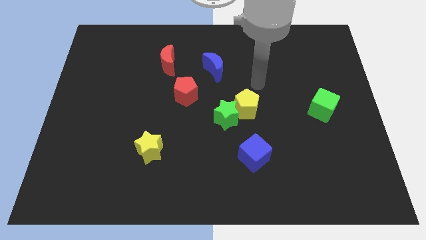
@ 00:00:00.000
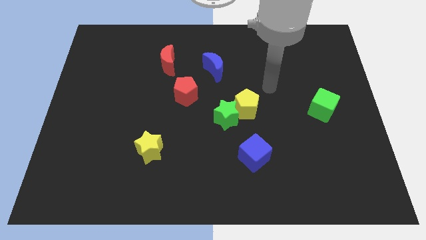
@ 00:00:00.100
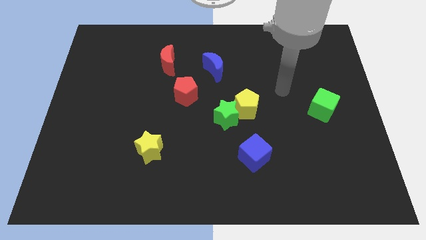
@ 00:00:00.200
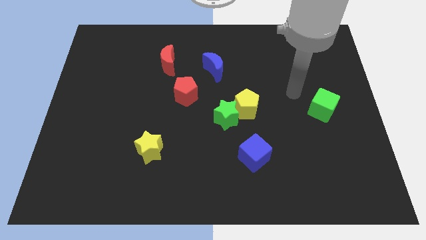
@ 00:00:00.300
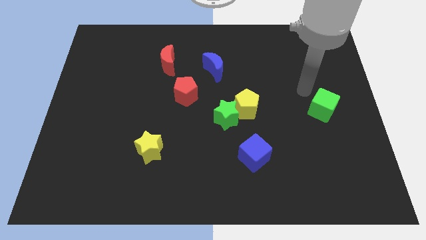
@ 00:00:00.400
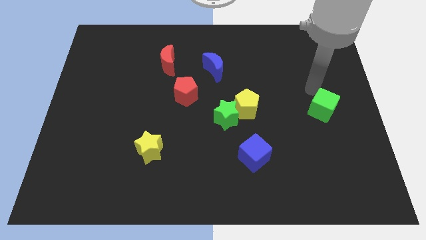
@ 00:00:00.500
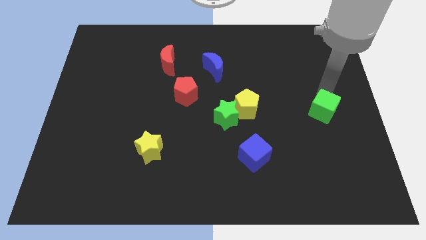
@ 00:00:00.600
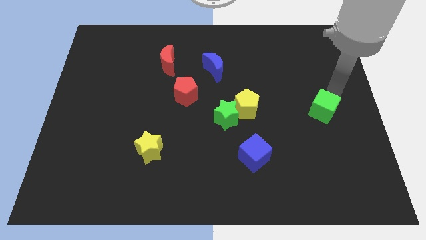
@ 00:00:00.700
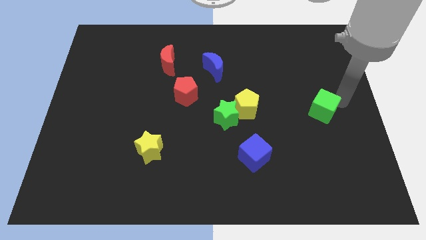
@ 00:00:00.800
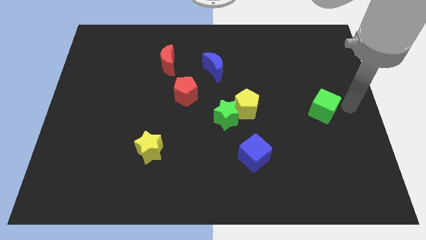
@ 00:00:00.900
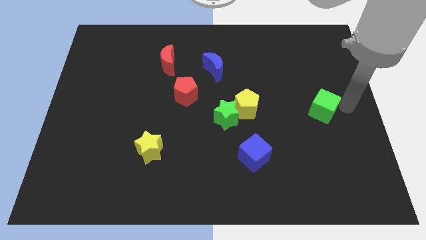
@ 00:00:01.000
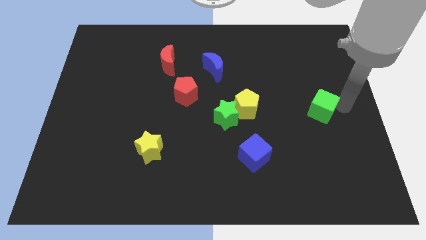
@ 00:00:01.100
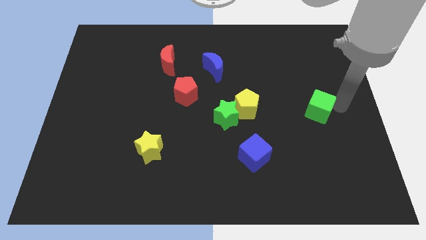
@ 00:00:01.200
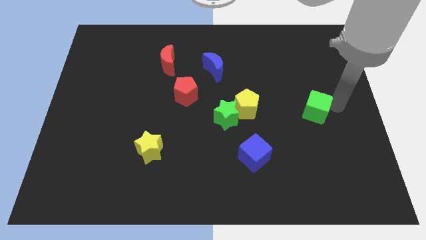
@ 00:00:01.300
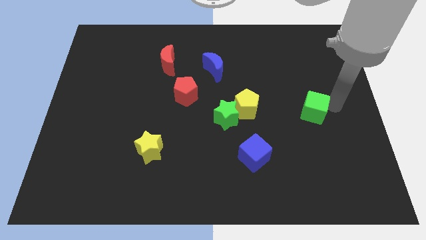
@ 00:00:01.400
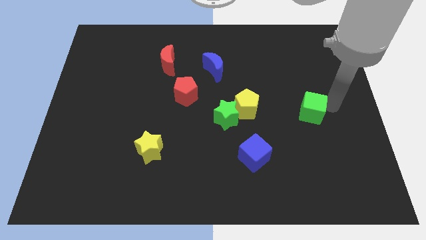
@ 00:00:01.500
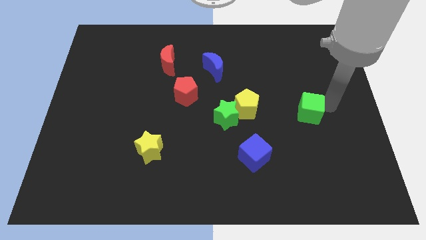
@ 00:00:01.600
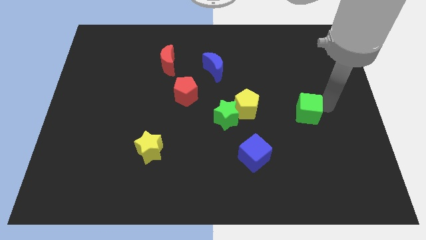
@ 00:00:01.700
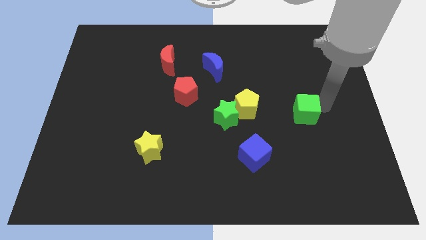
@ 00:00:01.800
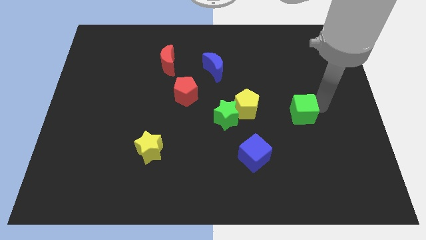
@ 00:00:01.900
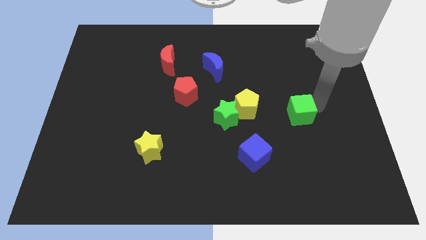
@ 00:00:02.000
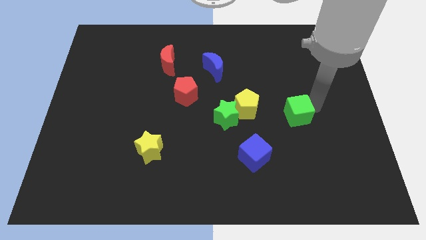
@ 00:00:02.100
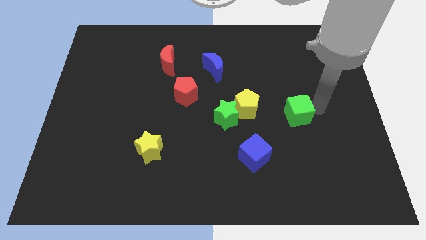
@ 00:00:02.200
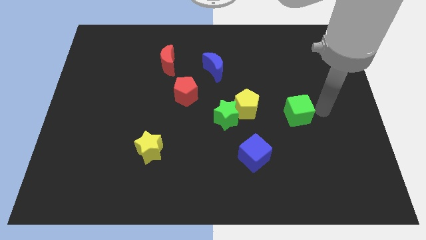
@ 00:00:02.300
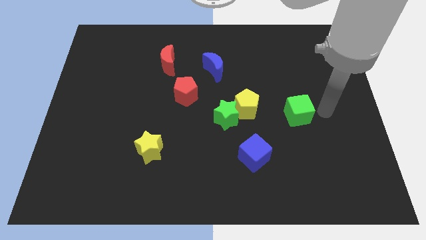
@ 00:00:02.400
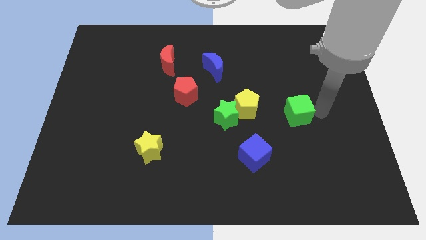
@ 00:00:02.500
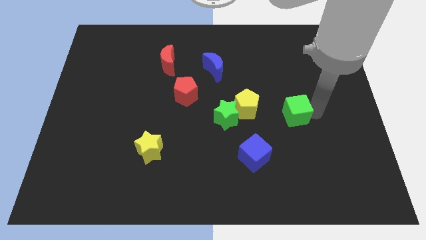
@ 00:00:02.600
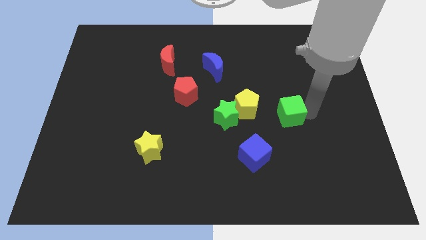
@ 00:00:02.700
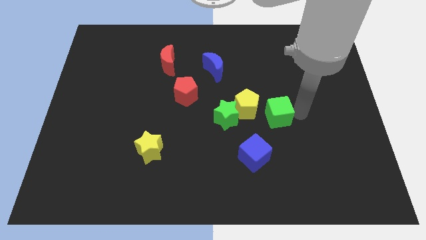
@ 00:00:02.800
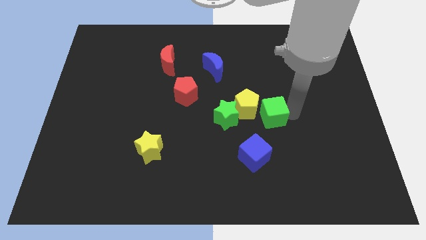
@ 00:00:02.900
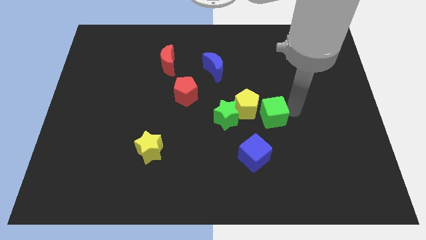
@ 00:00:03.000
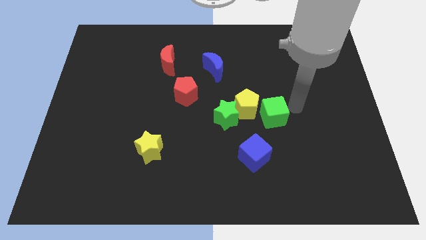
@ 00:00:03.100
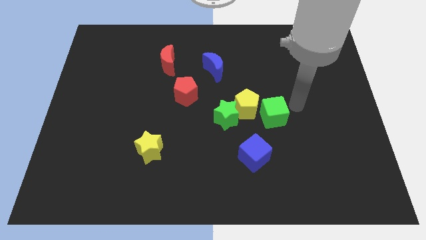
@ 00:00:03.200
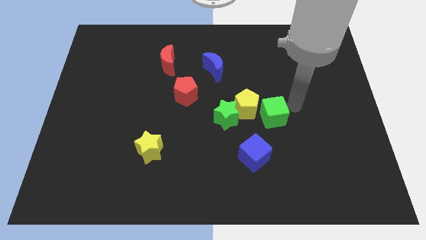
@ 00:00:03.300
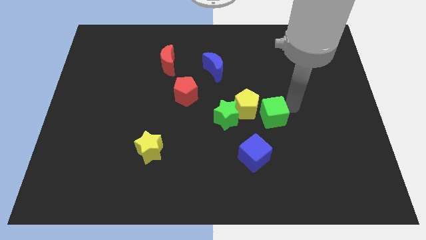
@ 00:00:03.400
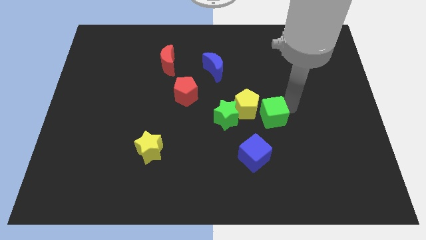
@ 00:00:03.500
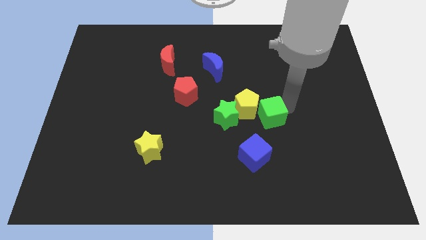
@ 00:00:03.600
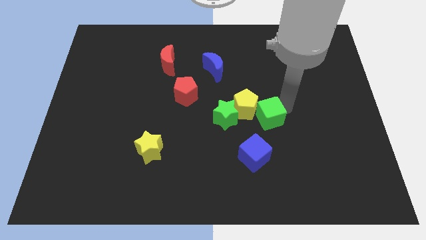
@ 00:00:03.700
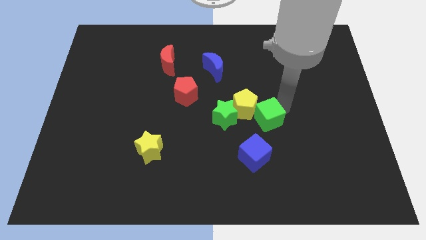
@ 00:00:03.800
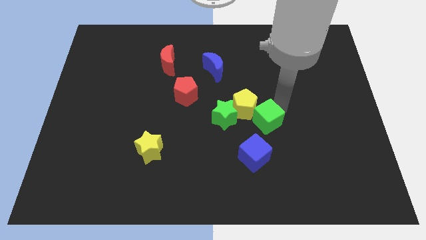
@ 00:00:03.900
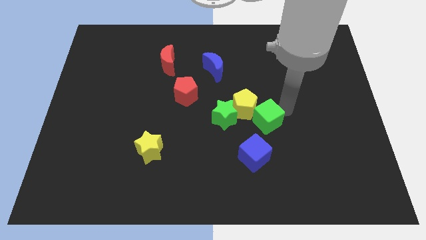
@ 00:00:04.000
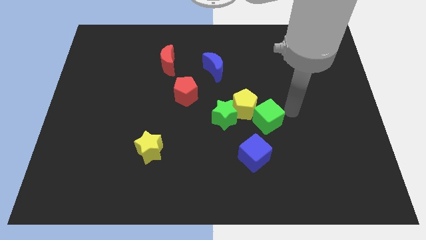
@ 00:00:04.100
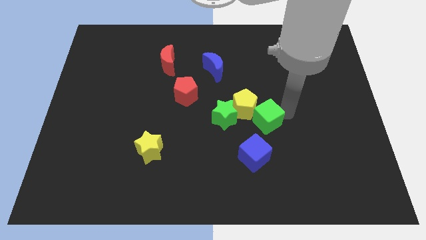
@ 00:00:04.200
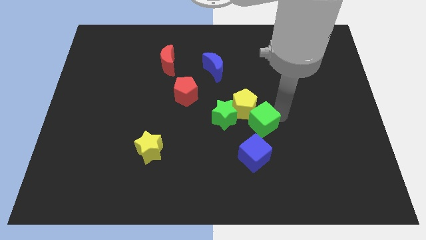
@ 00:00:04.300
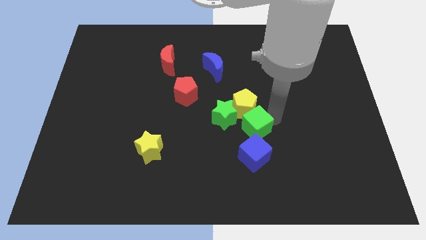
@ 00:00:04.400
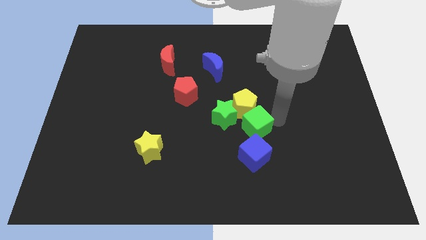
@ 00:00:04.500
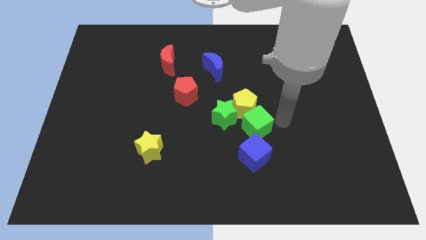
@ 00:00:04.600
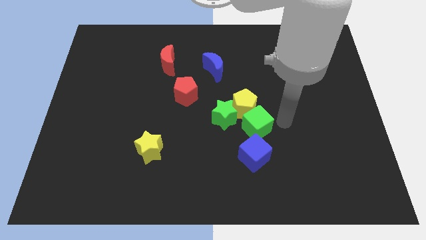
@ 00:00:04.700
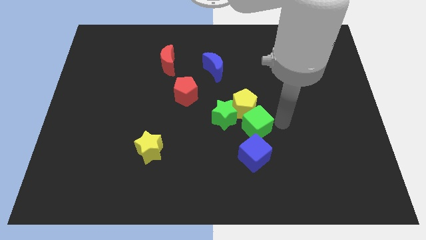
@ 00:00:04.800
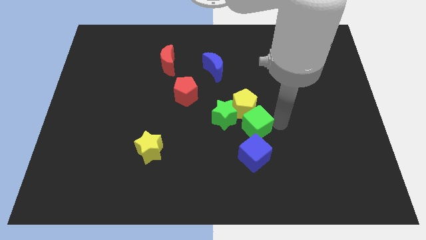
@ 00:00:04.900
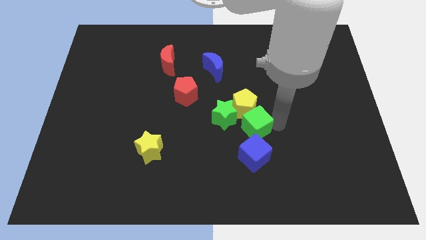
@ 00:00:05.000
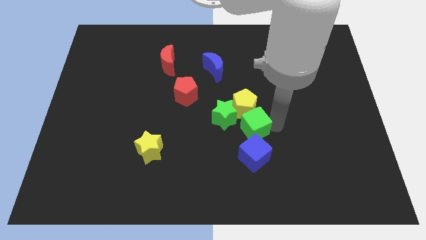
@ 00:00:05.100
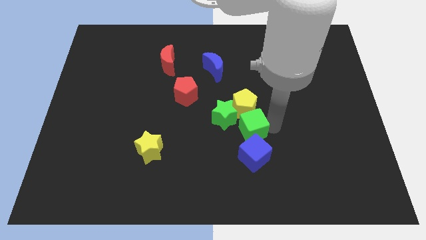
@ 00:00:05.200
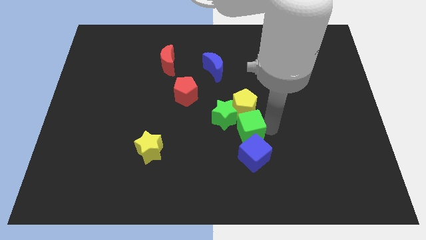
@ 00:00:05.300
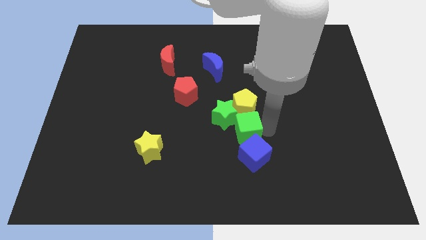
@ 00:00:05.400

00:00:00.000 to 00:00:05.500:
put the green cube to the bottom left of the yellow pentagon

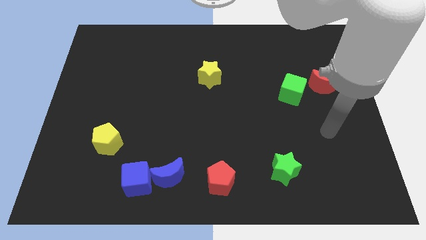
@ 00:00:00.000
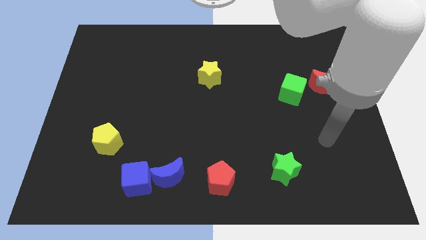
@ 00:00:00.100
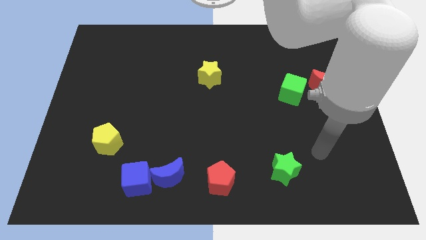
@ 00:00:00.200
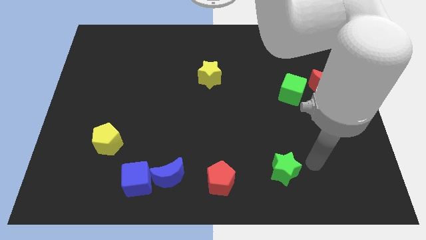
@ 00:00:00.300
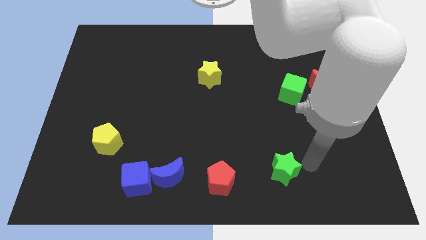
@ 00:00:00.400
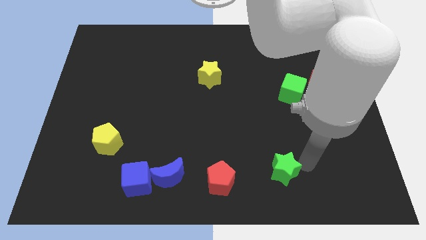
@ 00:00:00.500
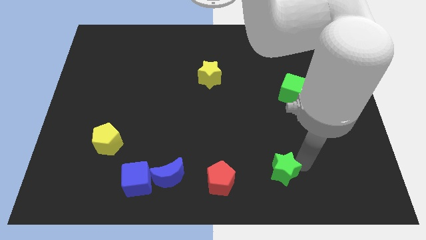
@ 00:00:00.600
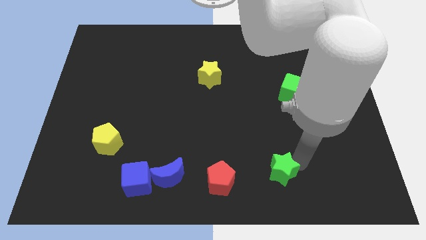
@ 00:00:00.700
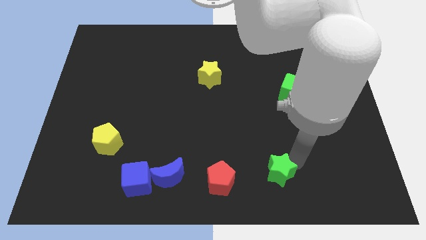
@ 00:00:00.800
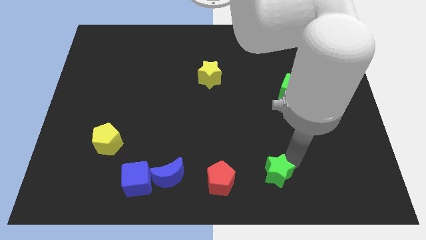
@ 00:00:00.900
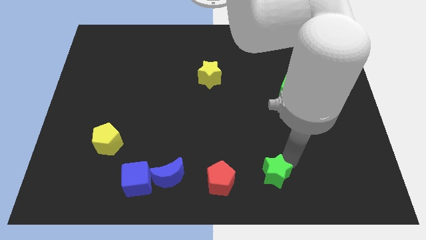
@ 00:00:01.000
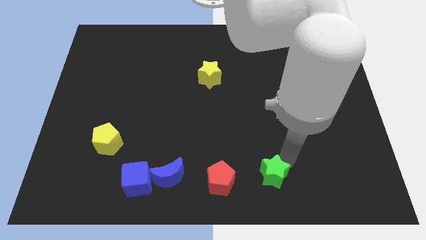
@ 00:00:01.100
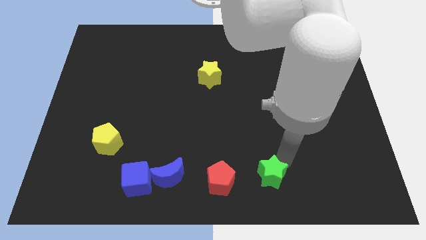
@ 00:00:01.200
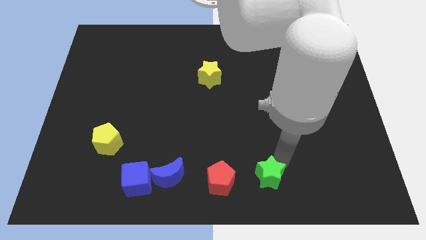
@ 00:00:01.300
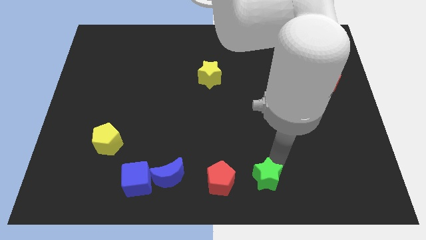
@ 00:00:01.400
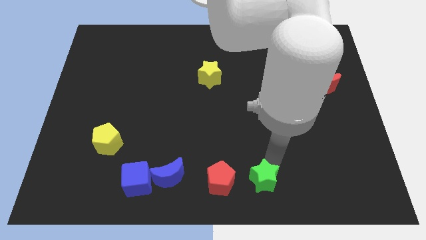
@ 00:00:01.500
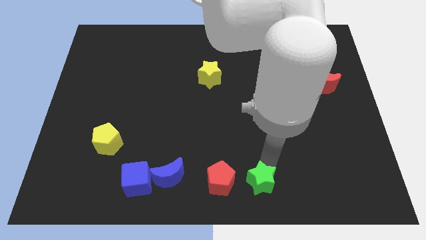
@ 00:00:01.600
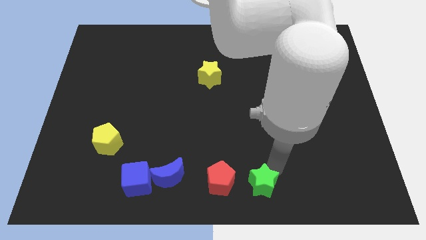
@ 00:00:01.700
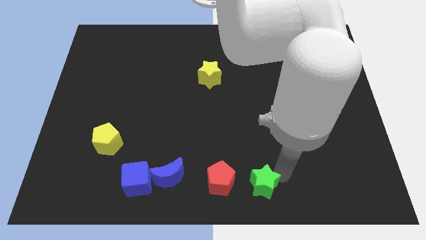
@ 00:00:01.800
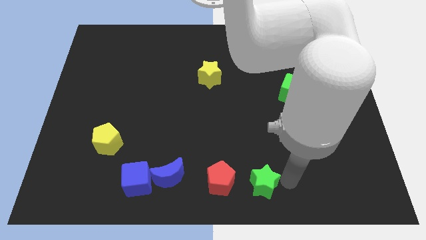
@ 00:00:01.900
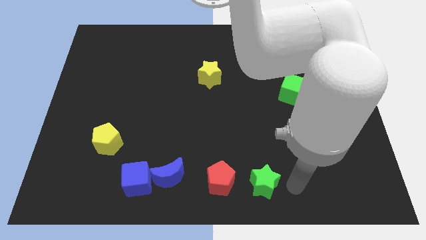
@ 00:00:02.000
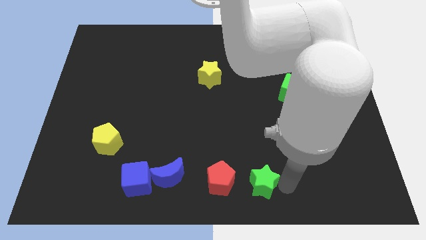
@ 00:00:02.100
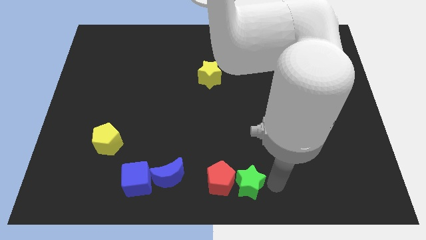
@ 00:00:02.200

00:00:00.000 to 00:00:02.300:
slide the green star to the right side of the blue moon
